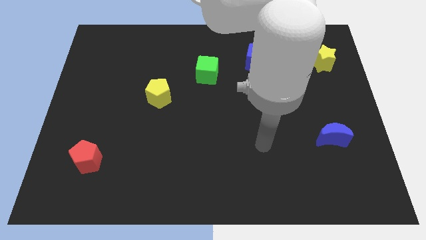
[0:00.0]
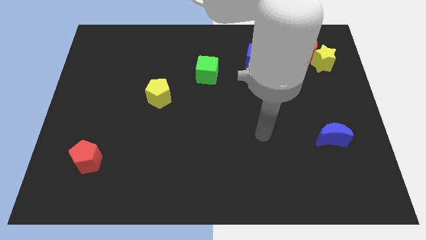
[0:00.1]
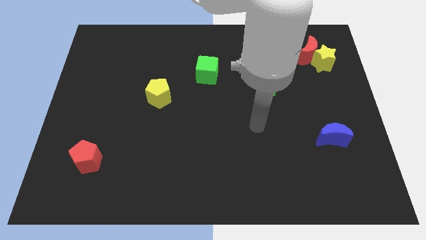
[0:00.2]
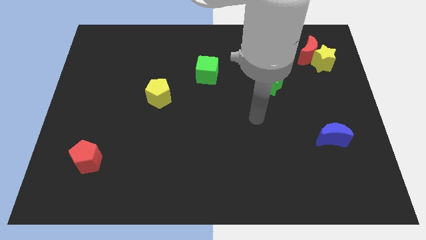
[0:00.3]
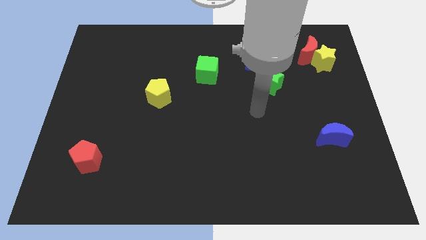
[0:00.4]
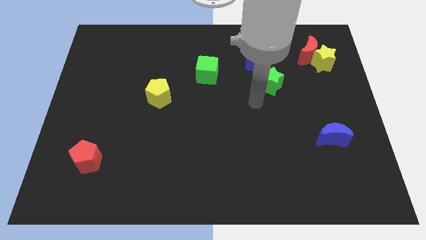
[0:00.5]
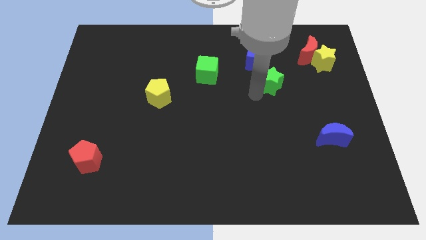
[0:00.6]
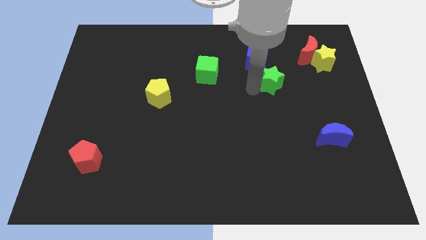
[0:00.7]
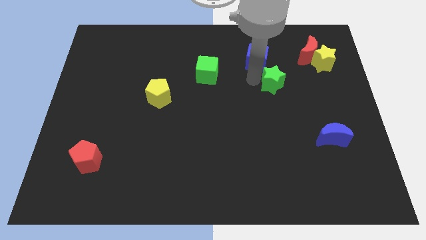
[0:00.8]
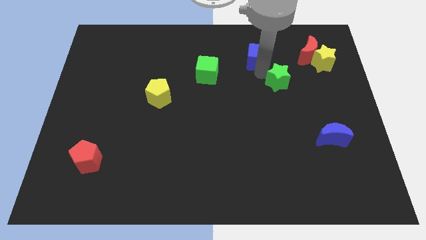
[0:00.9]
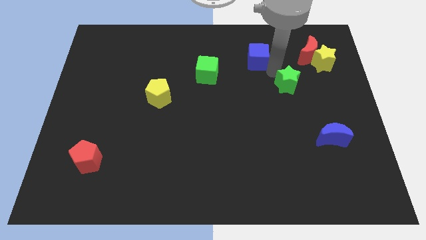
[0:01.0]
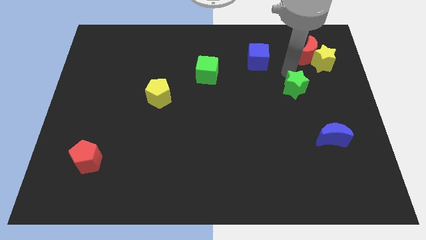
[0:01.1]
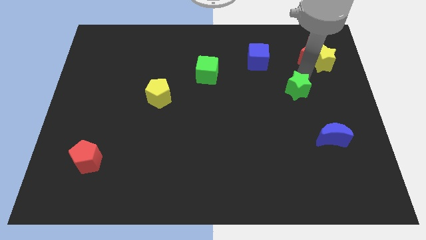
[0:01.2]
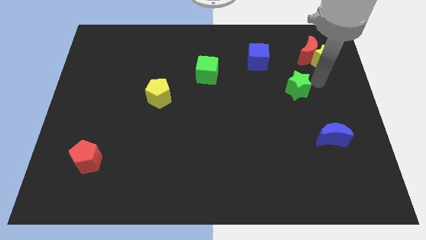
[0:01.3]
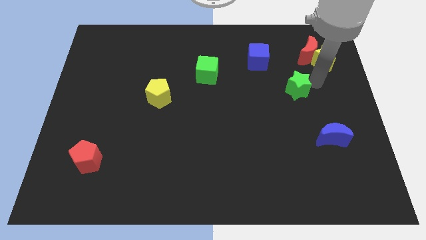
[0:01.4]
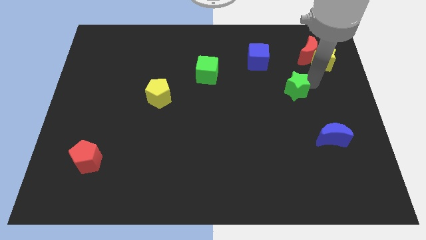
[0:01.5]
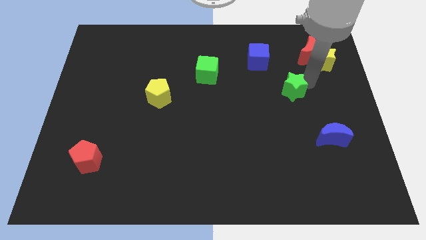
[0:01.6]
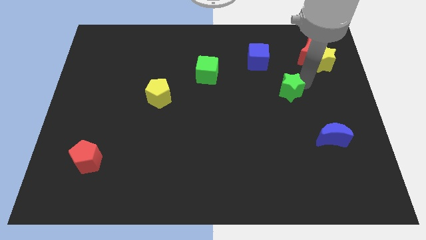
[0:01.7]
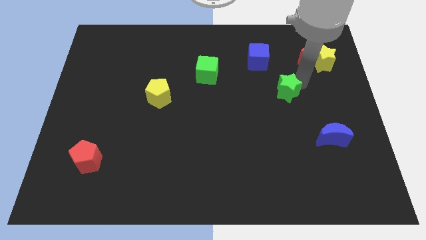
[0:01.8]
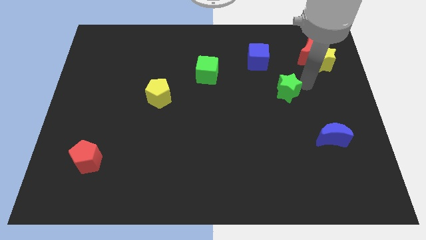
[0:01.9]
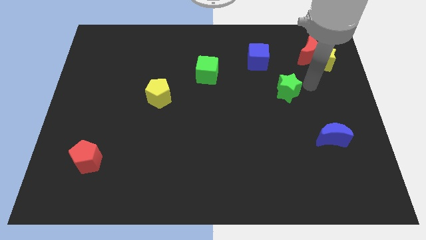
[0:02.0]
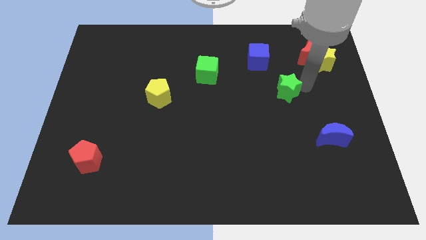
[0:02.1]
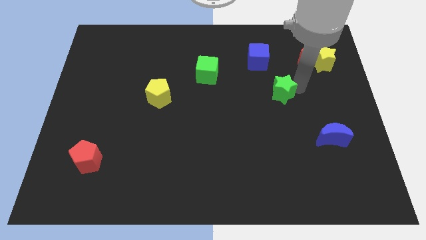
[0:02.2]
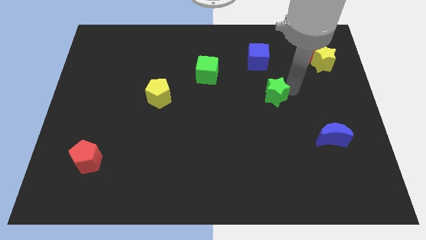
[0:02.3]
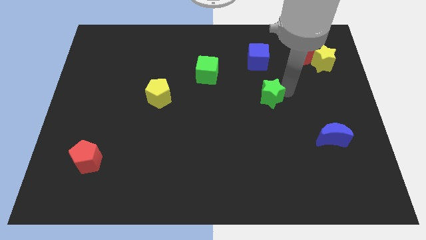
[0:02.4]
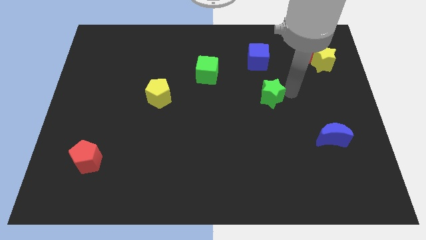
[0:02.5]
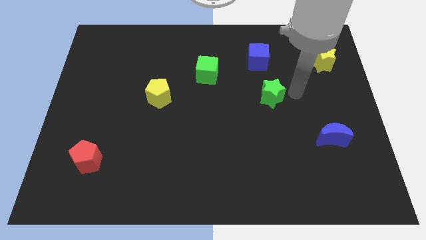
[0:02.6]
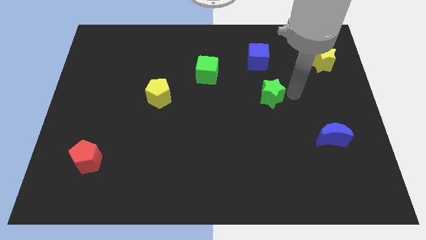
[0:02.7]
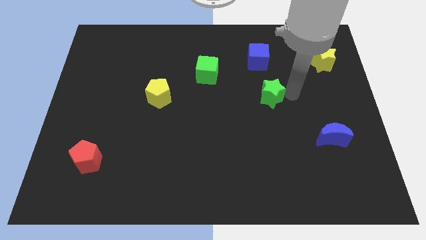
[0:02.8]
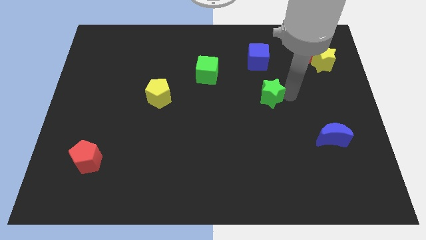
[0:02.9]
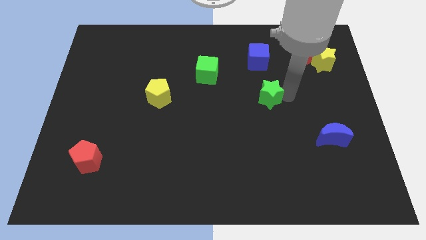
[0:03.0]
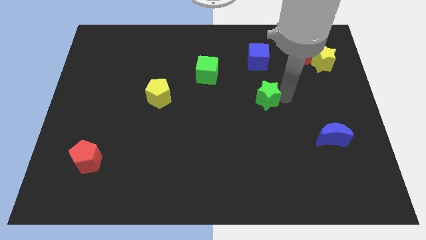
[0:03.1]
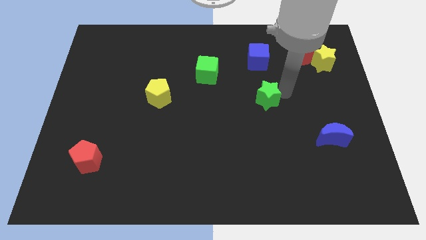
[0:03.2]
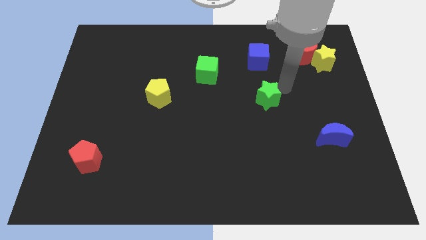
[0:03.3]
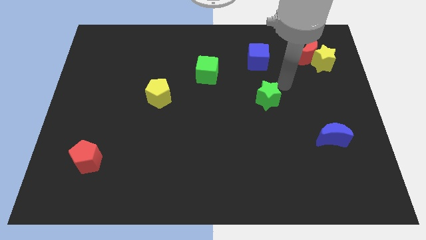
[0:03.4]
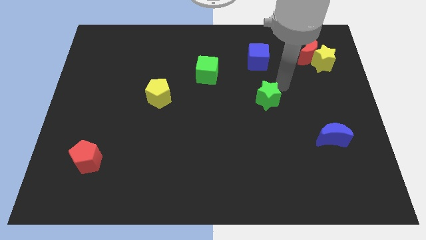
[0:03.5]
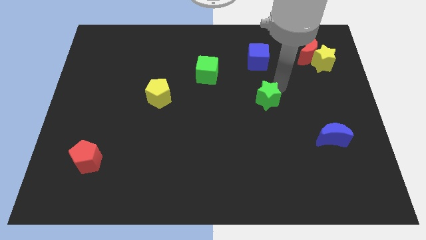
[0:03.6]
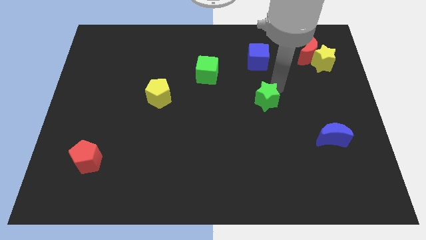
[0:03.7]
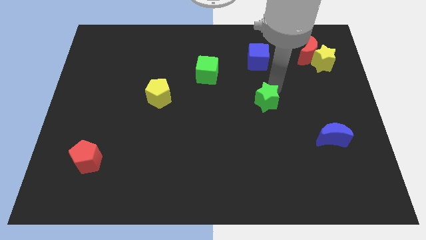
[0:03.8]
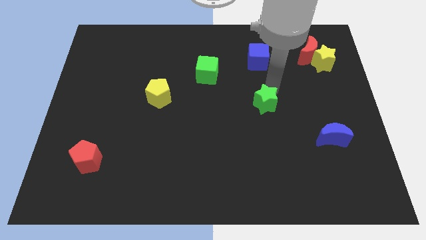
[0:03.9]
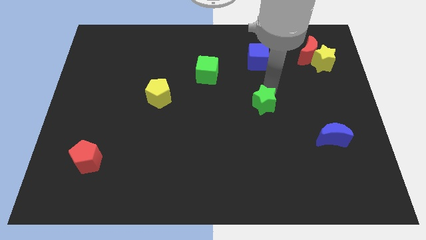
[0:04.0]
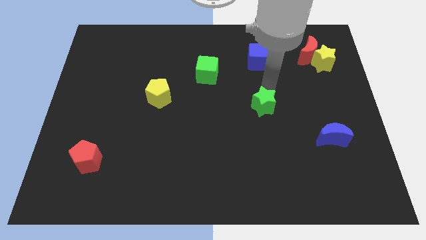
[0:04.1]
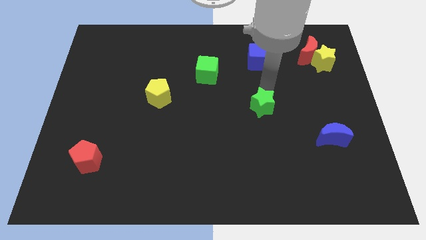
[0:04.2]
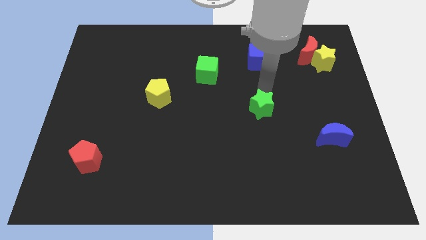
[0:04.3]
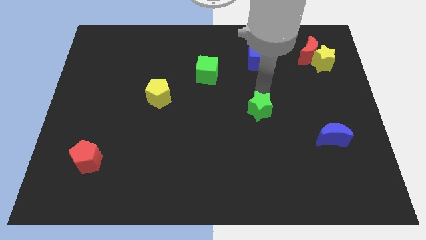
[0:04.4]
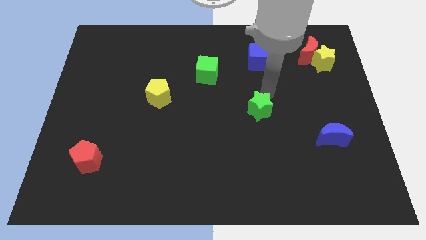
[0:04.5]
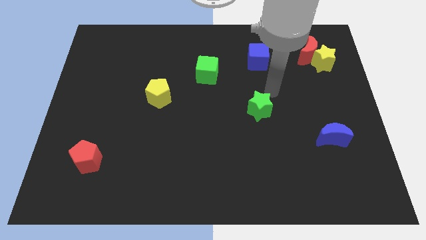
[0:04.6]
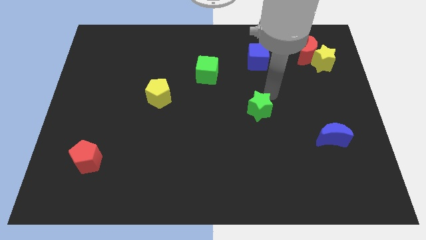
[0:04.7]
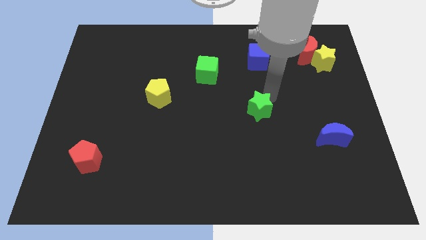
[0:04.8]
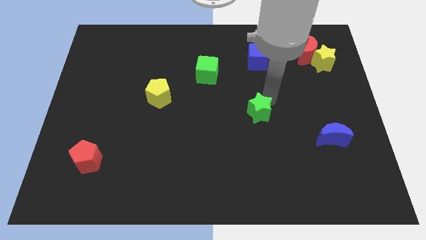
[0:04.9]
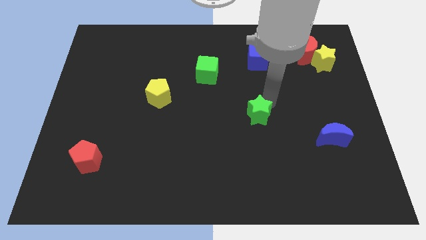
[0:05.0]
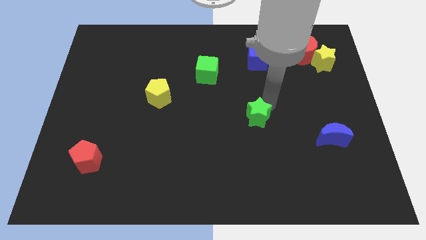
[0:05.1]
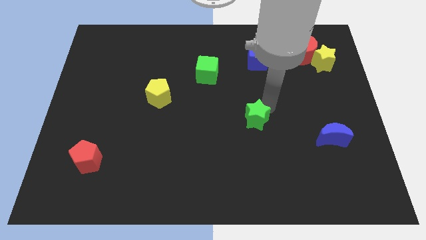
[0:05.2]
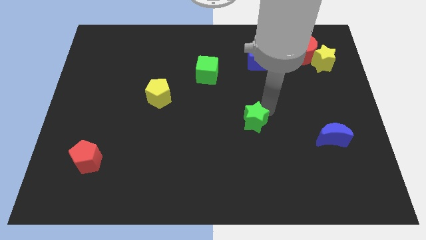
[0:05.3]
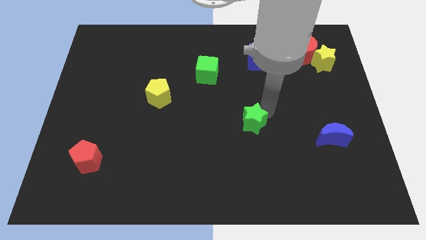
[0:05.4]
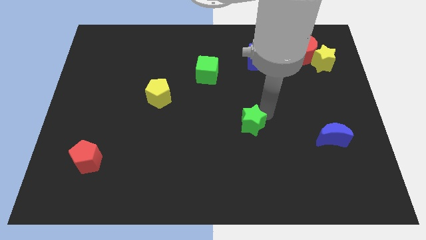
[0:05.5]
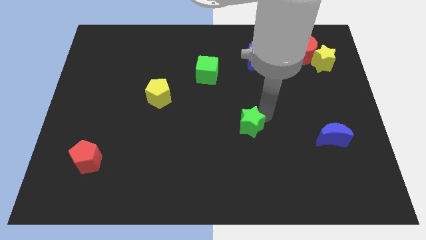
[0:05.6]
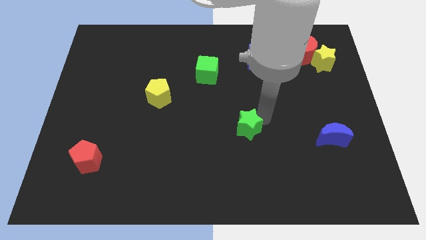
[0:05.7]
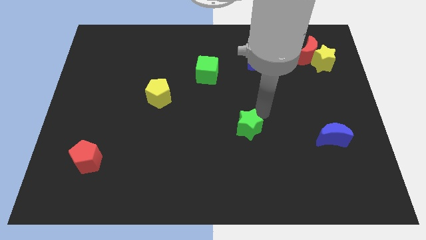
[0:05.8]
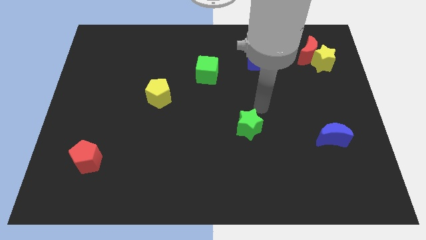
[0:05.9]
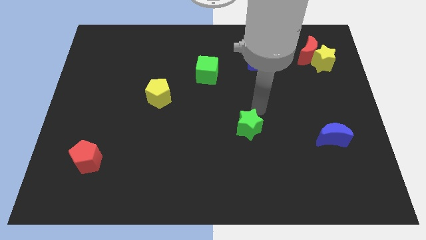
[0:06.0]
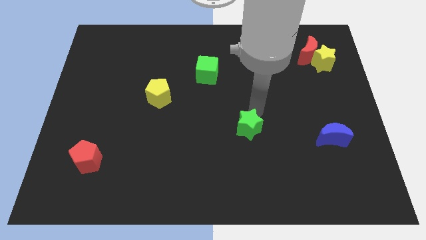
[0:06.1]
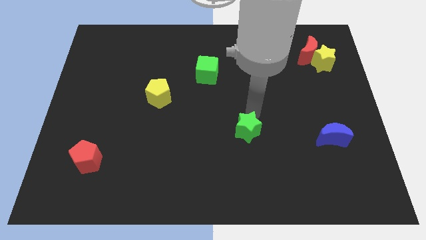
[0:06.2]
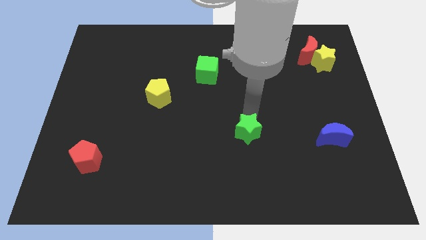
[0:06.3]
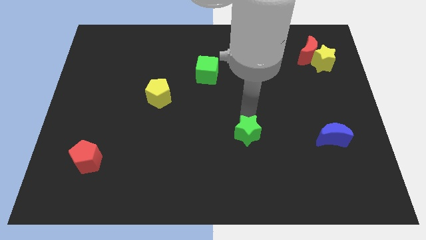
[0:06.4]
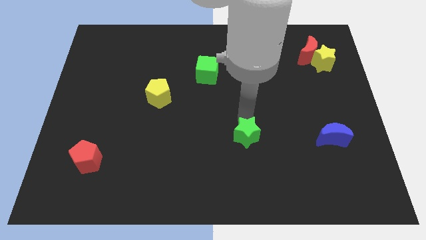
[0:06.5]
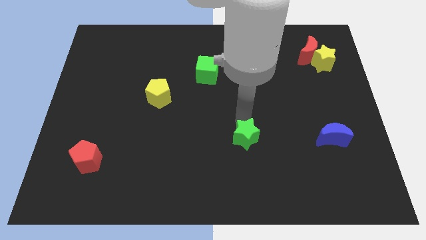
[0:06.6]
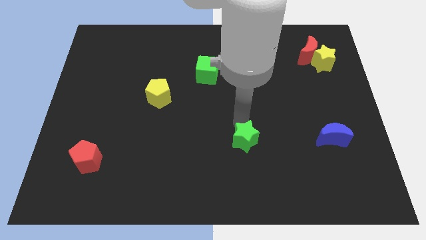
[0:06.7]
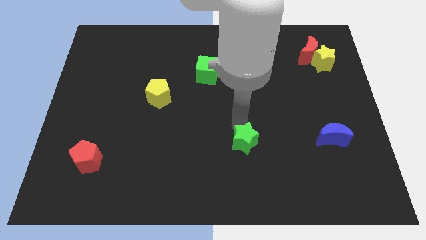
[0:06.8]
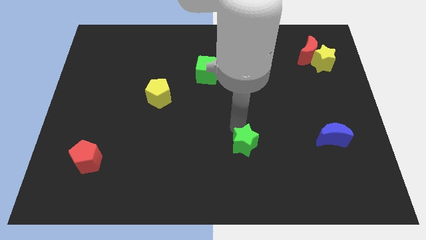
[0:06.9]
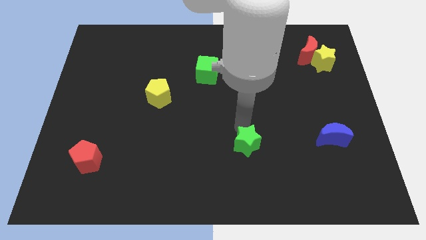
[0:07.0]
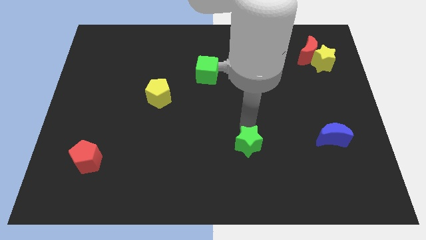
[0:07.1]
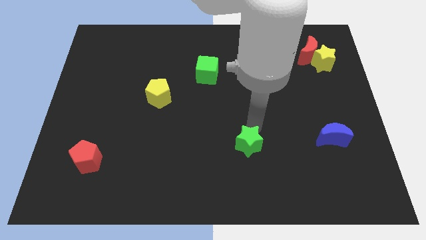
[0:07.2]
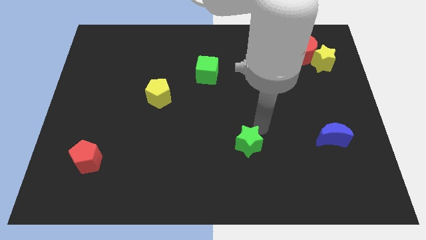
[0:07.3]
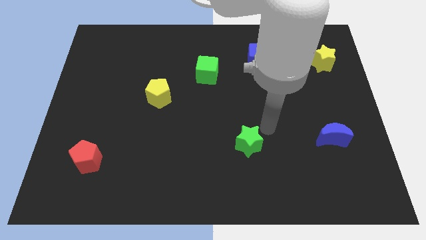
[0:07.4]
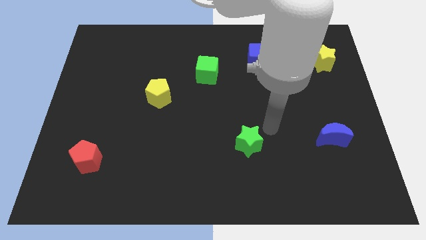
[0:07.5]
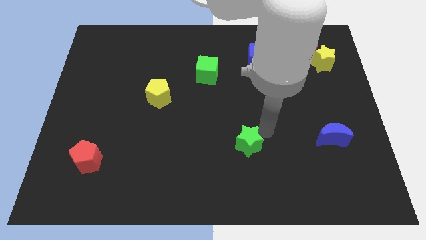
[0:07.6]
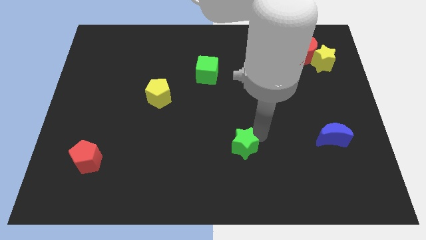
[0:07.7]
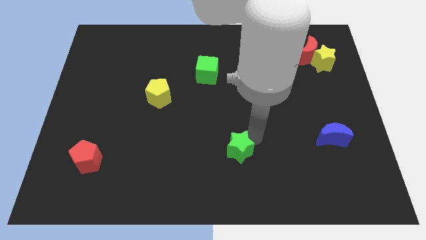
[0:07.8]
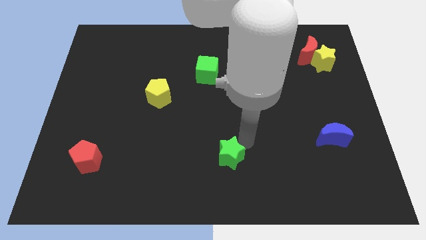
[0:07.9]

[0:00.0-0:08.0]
move the green star to the bottom
